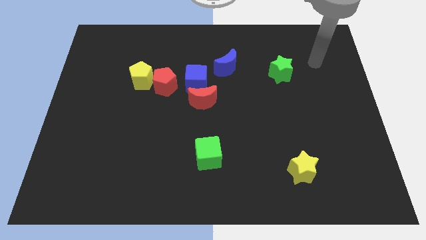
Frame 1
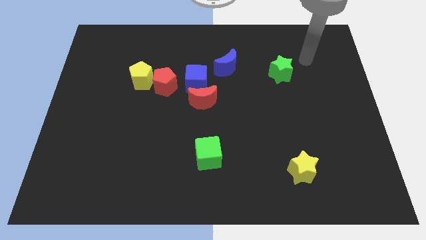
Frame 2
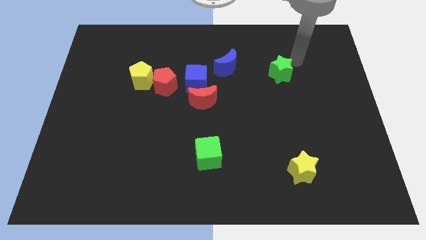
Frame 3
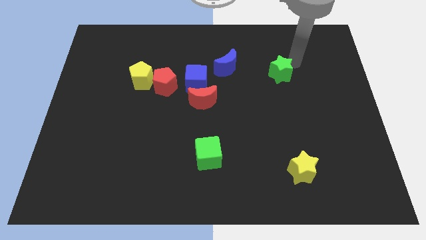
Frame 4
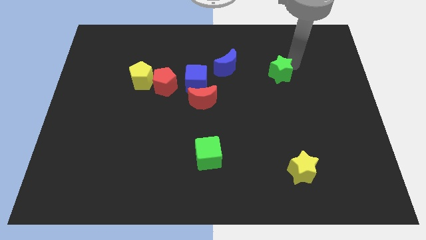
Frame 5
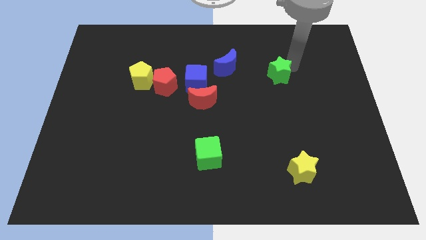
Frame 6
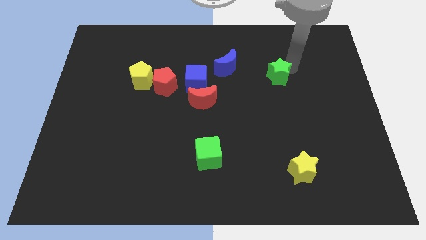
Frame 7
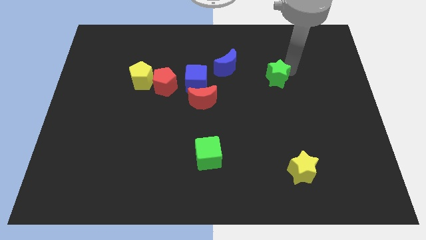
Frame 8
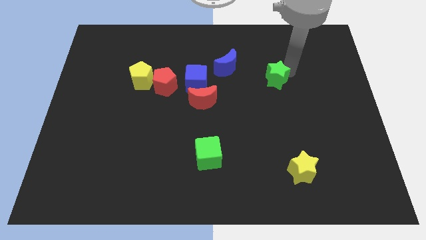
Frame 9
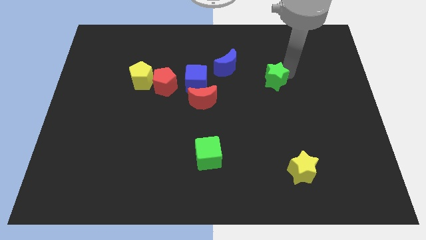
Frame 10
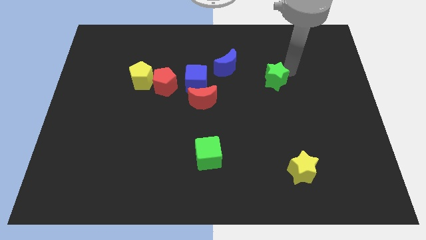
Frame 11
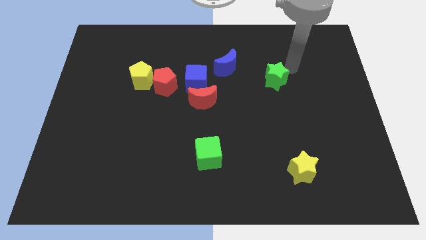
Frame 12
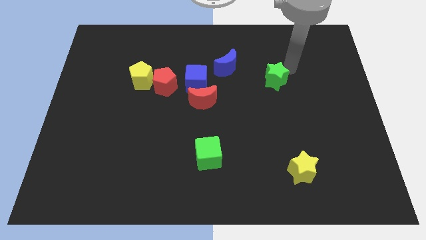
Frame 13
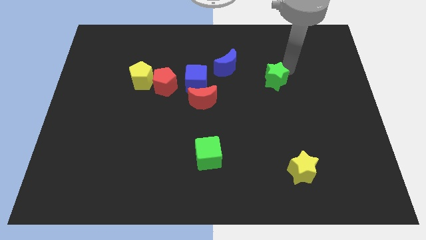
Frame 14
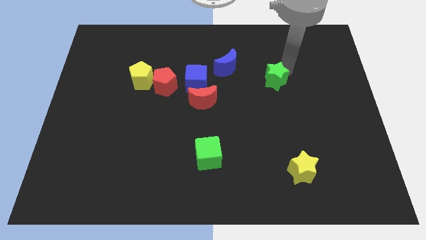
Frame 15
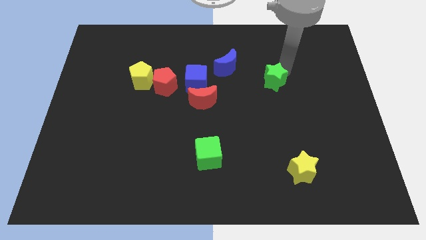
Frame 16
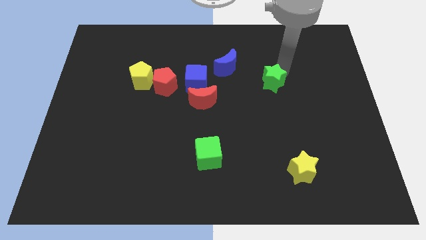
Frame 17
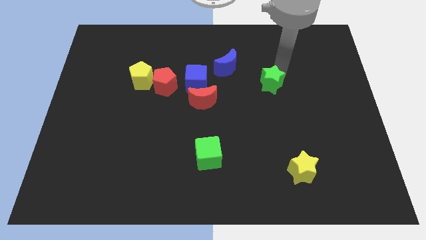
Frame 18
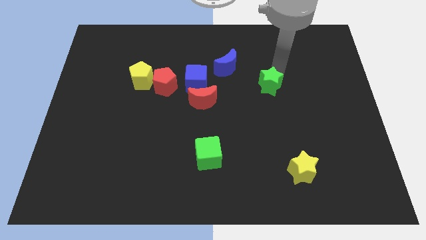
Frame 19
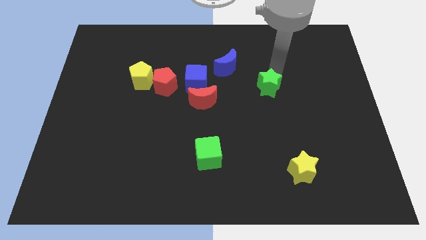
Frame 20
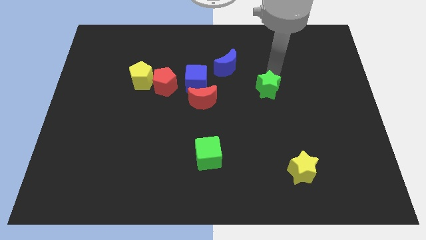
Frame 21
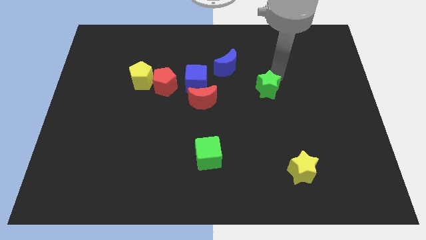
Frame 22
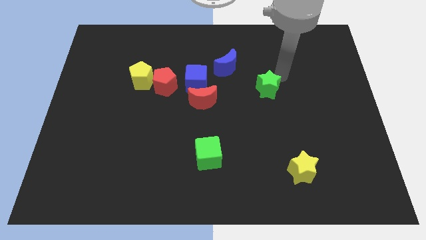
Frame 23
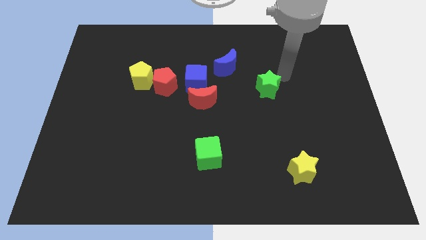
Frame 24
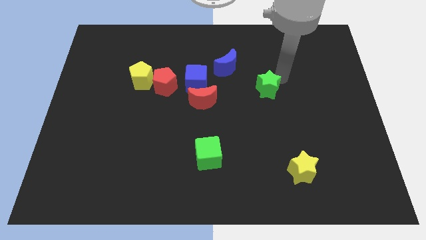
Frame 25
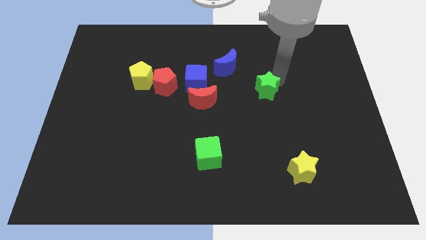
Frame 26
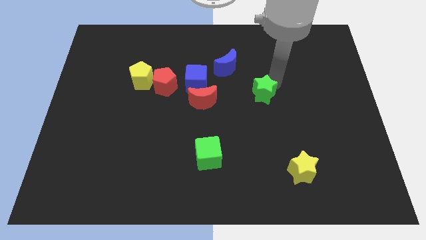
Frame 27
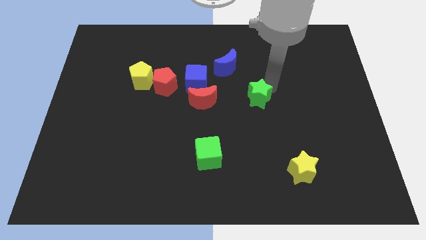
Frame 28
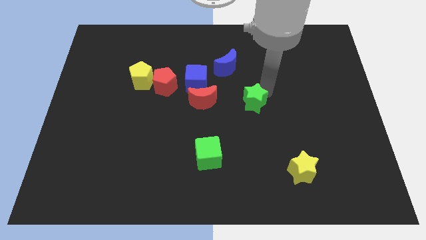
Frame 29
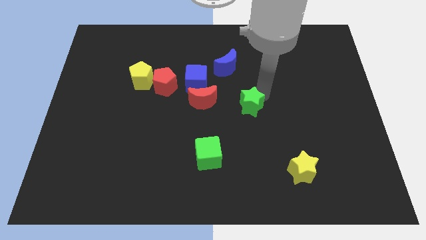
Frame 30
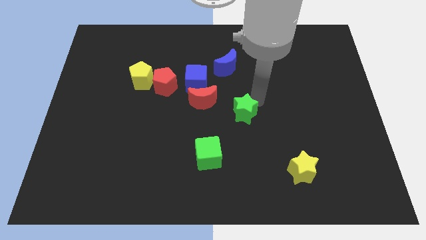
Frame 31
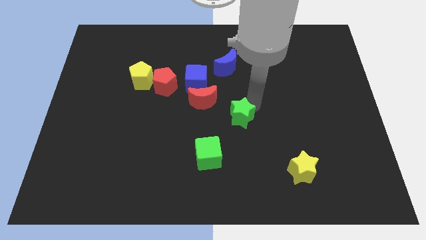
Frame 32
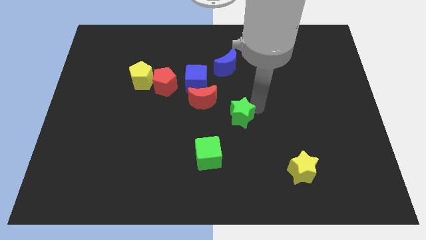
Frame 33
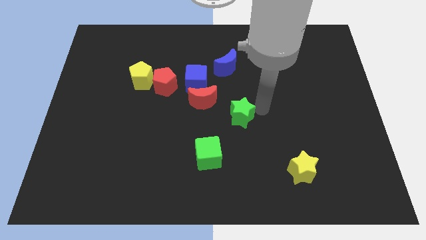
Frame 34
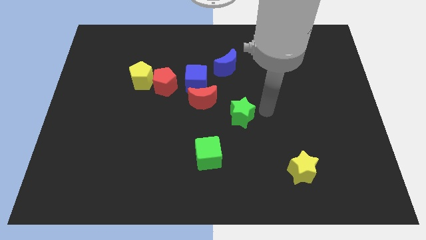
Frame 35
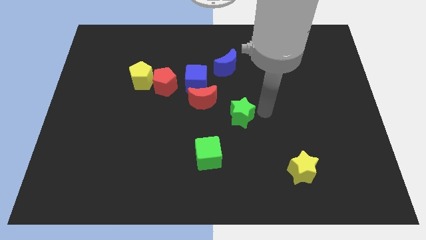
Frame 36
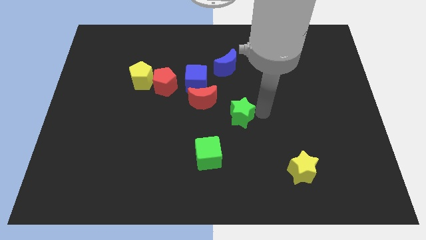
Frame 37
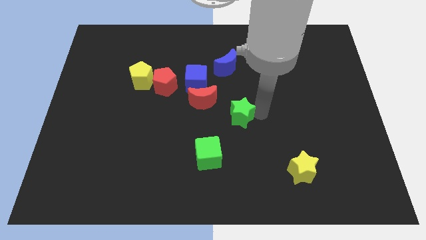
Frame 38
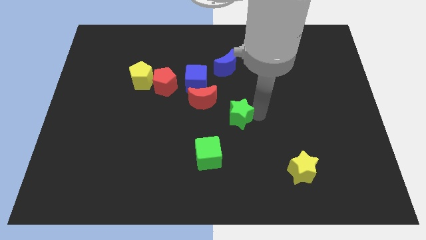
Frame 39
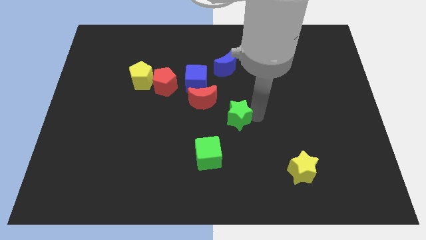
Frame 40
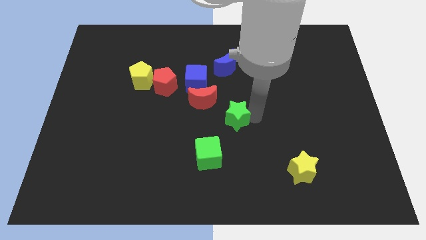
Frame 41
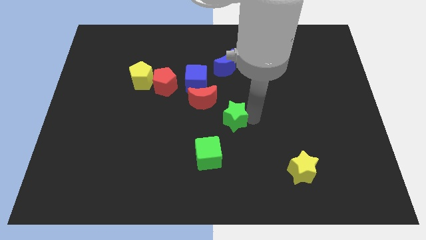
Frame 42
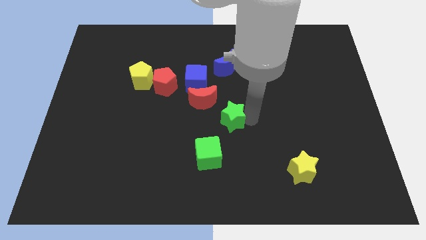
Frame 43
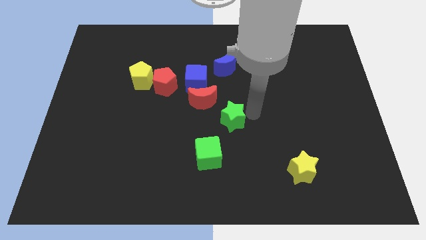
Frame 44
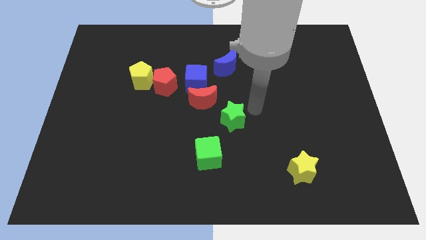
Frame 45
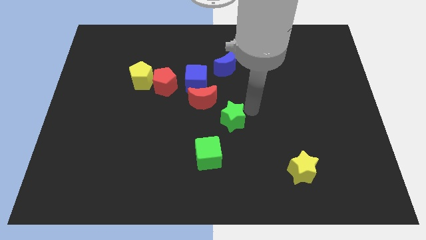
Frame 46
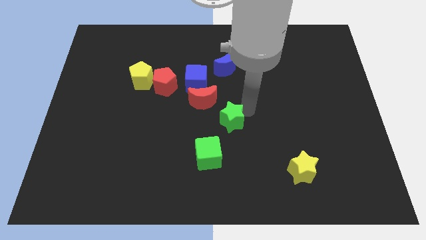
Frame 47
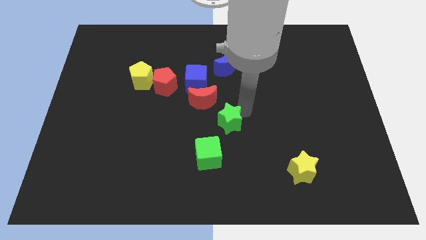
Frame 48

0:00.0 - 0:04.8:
slide the green star downwards and then to the left

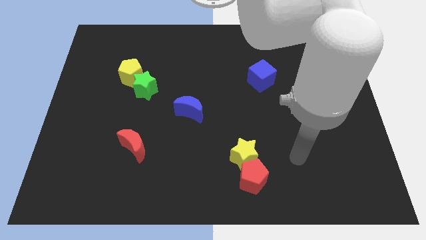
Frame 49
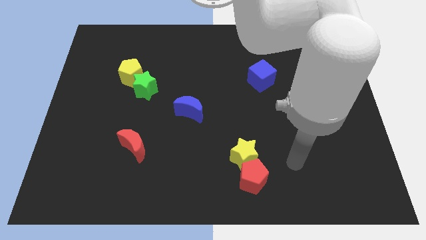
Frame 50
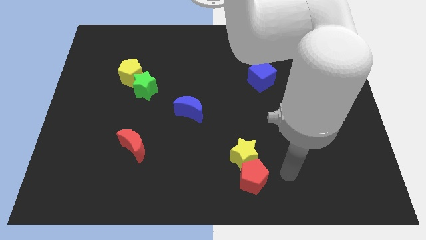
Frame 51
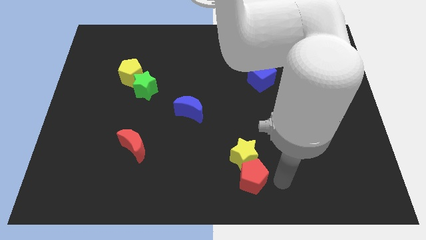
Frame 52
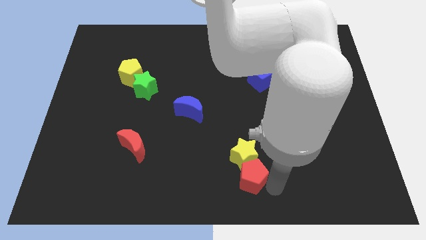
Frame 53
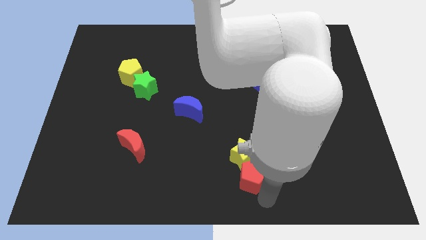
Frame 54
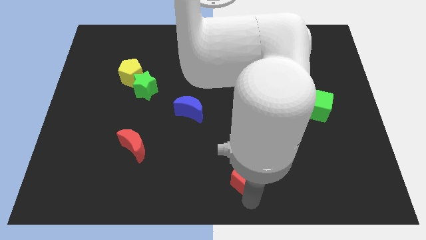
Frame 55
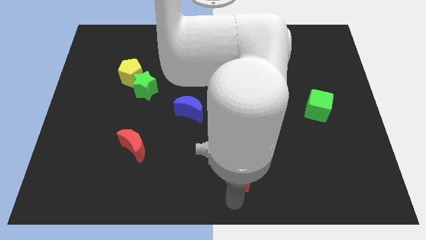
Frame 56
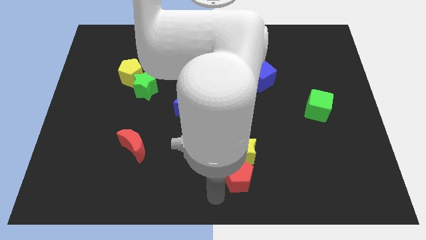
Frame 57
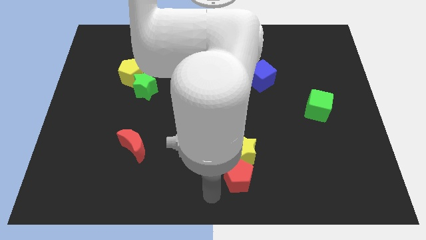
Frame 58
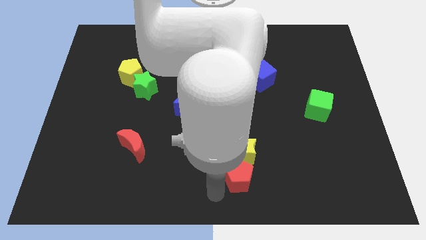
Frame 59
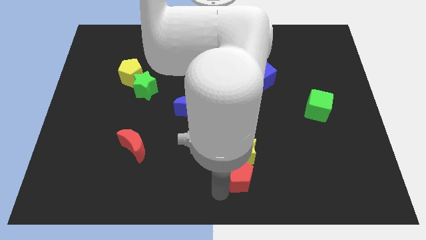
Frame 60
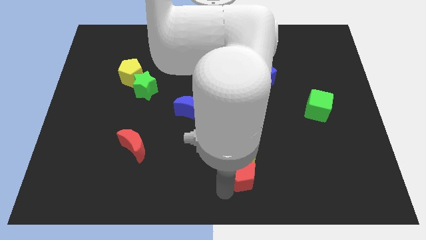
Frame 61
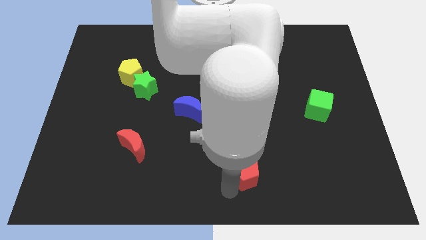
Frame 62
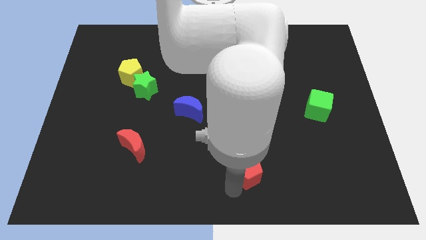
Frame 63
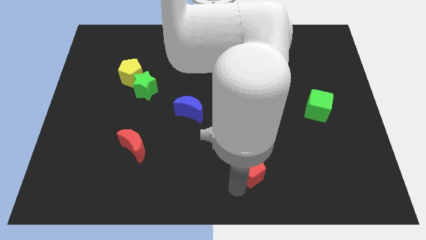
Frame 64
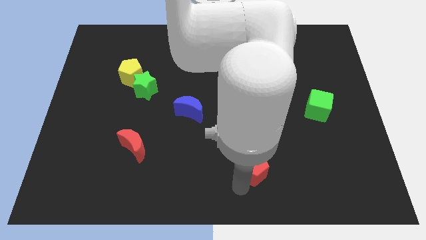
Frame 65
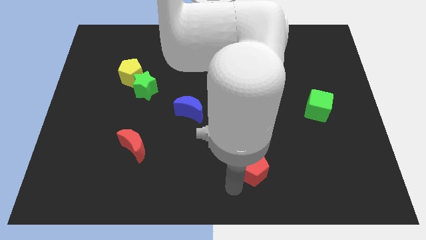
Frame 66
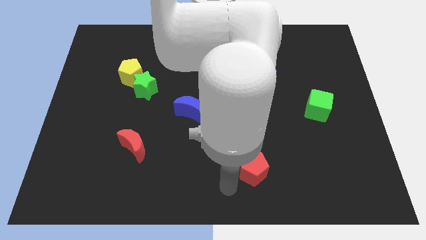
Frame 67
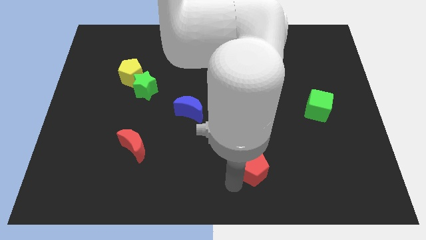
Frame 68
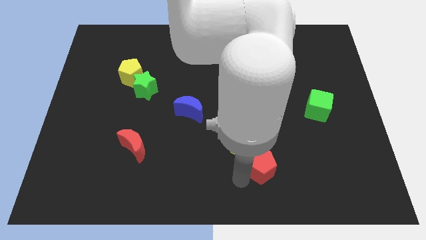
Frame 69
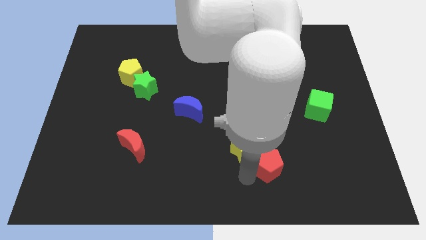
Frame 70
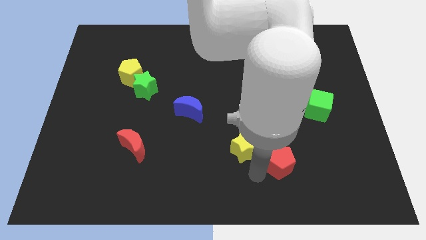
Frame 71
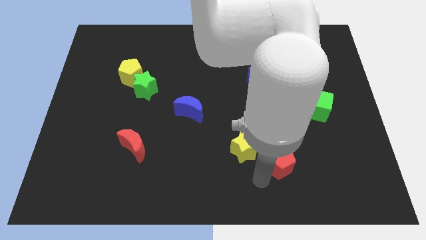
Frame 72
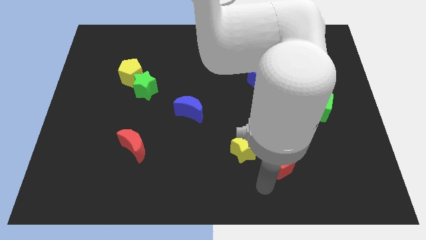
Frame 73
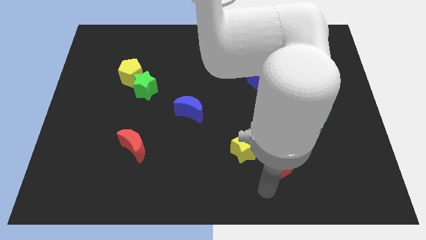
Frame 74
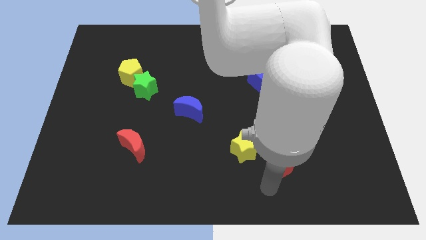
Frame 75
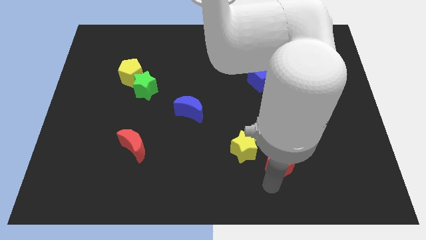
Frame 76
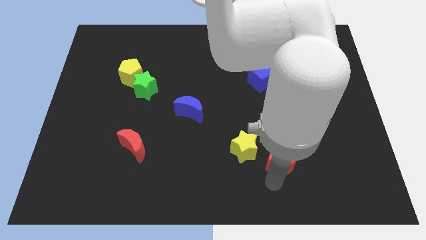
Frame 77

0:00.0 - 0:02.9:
push the red pentagon somewhat diagonally up and right

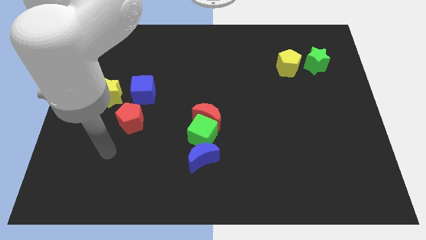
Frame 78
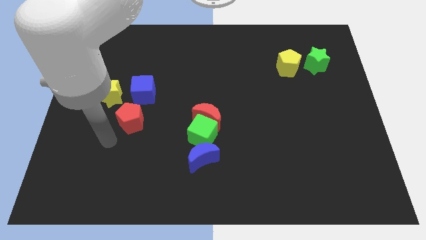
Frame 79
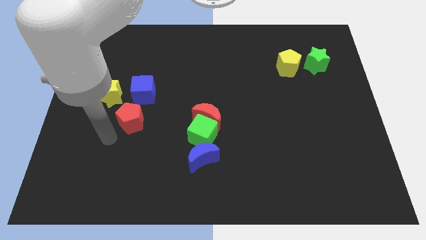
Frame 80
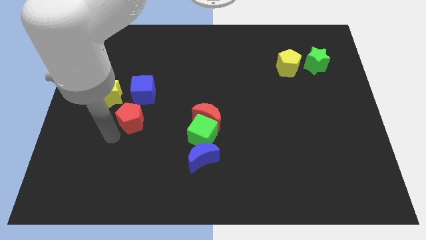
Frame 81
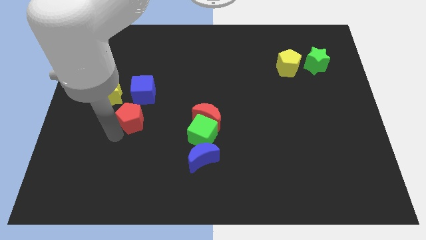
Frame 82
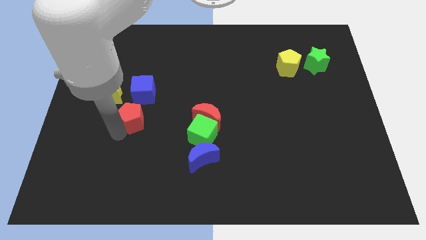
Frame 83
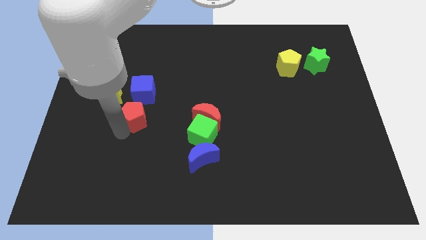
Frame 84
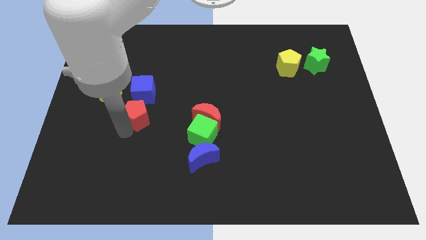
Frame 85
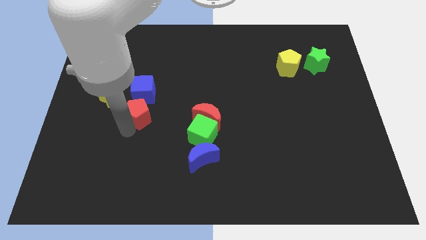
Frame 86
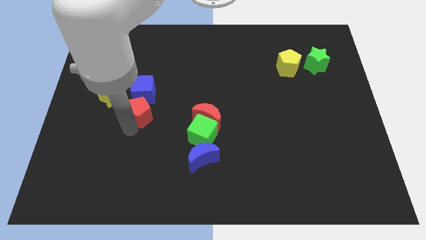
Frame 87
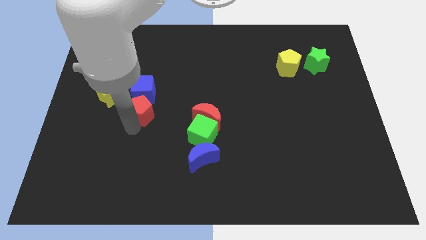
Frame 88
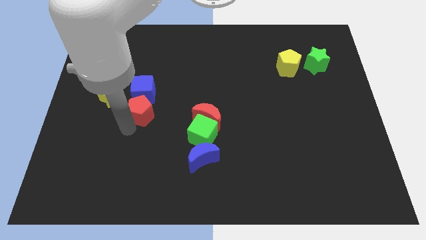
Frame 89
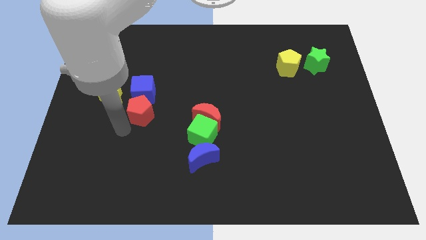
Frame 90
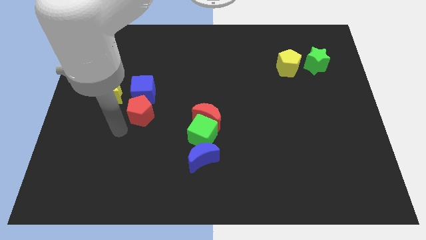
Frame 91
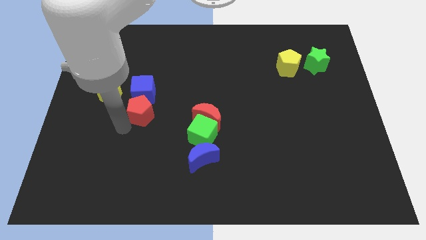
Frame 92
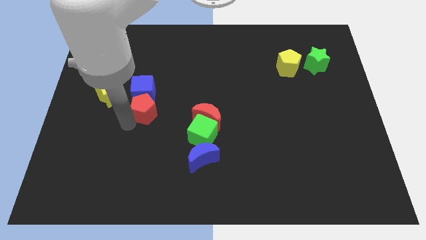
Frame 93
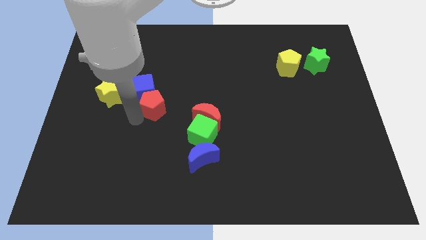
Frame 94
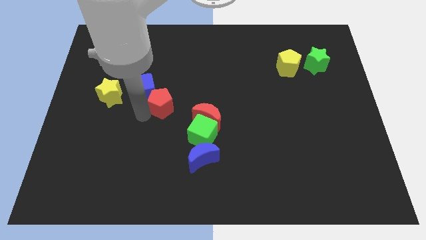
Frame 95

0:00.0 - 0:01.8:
slightly move the red pentagon diagonally up and to the right
